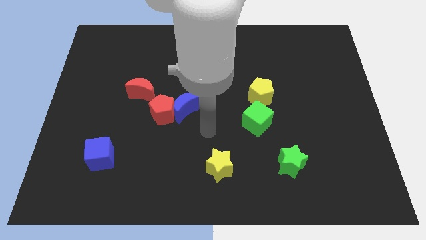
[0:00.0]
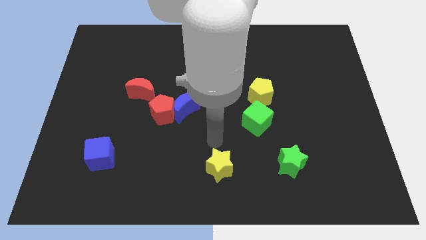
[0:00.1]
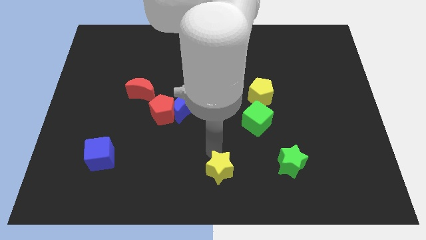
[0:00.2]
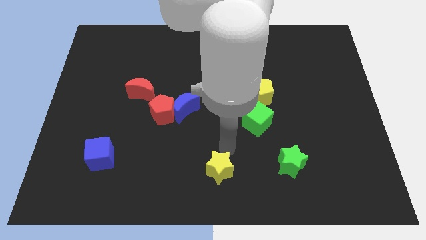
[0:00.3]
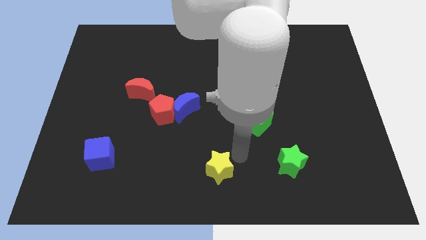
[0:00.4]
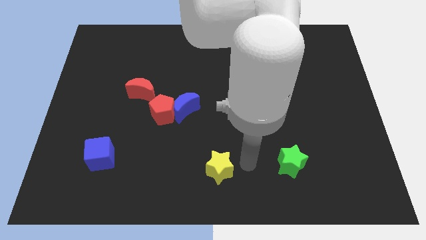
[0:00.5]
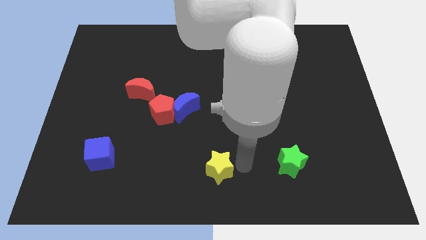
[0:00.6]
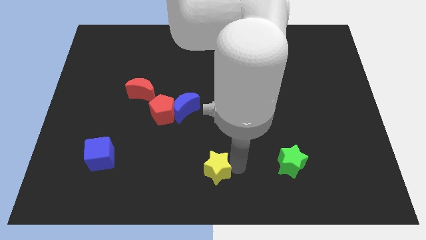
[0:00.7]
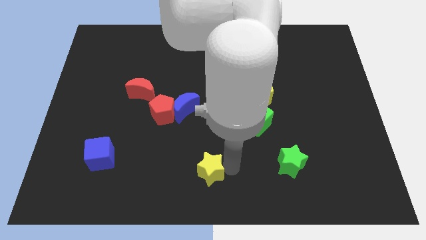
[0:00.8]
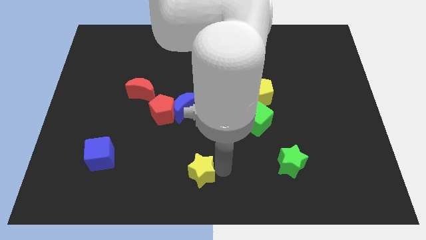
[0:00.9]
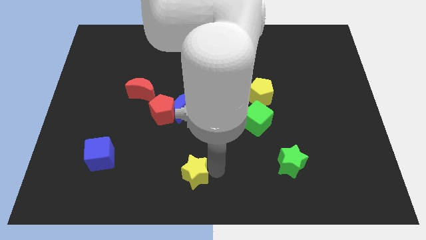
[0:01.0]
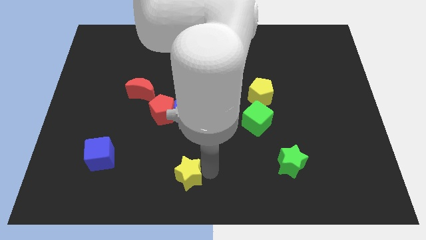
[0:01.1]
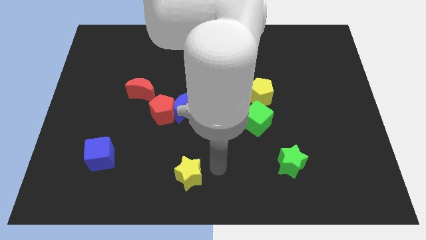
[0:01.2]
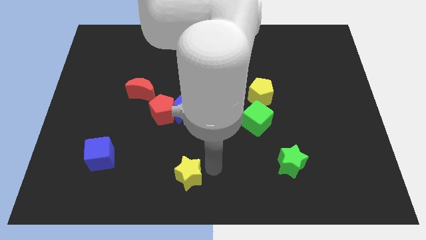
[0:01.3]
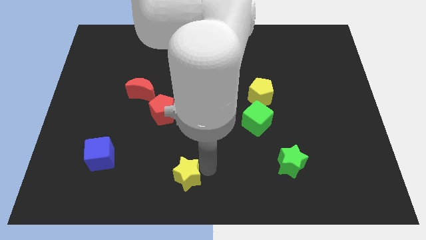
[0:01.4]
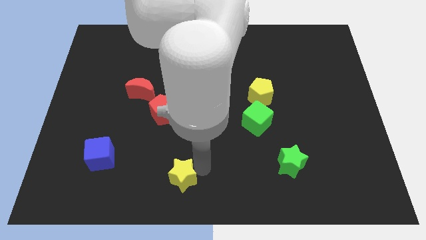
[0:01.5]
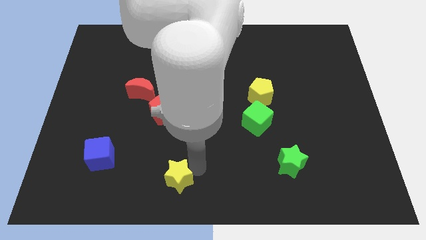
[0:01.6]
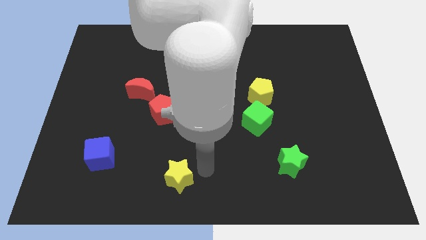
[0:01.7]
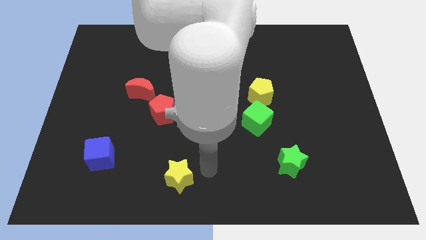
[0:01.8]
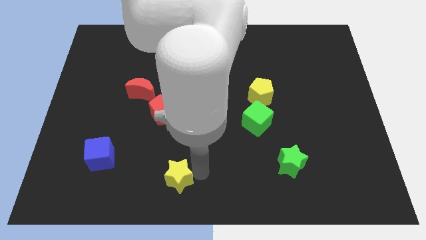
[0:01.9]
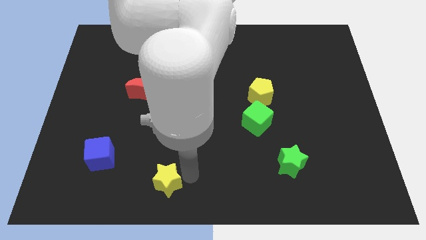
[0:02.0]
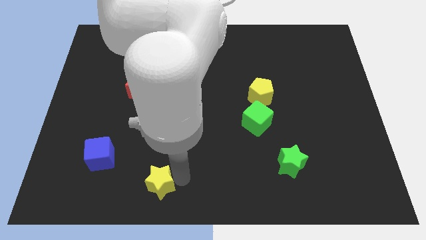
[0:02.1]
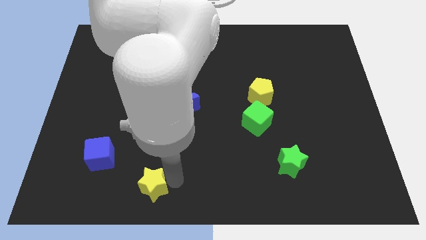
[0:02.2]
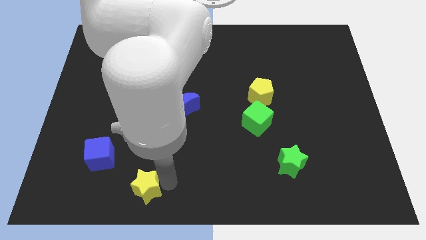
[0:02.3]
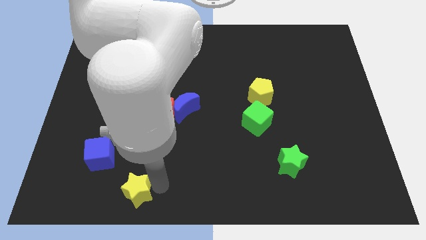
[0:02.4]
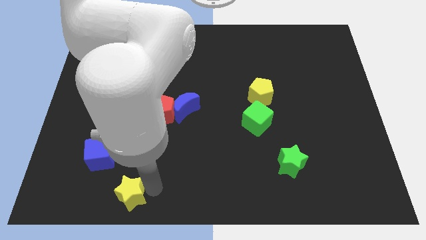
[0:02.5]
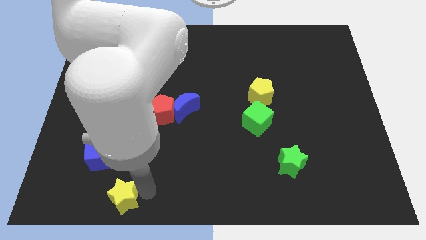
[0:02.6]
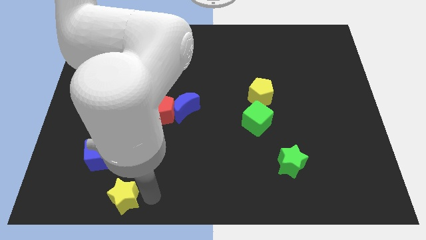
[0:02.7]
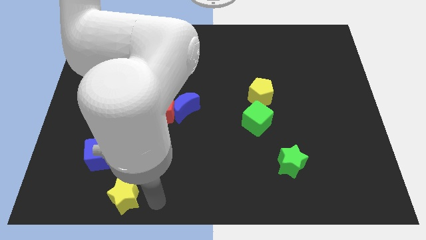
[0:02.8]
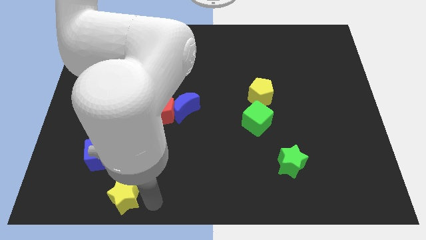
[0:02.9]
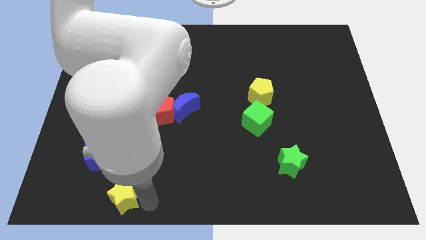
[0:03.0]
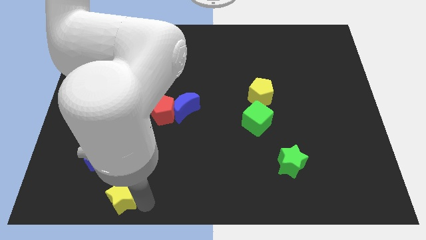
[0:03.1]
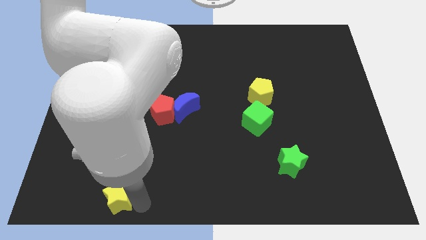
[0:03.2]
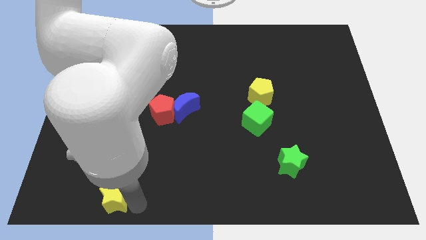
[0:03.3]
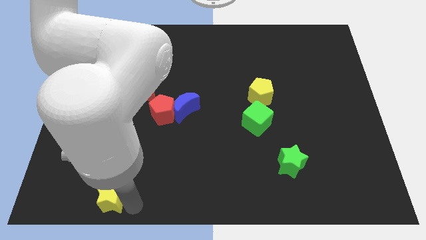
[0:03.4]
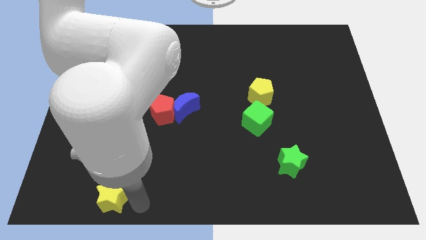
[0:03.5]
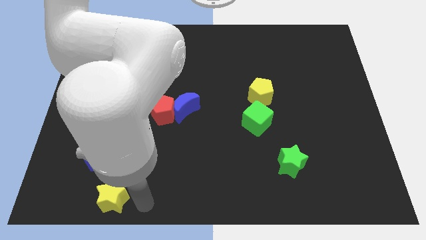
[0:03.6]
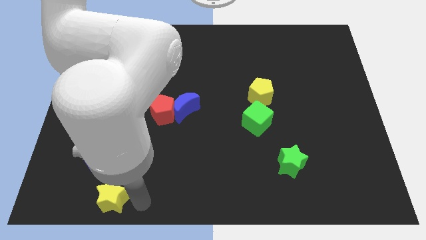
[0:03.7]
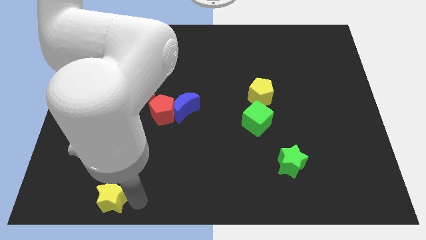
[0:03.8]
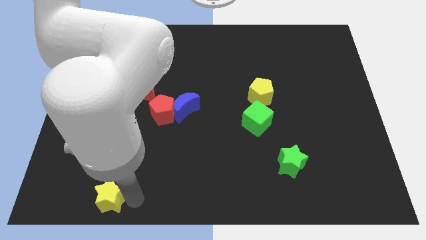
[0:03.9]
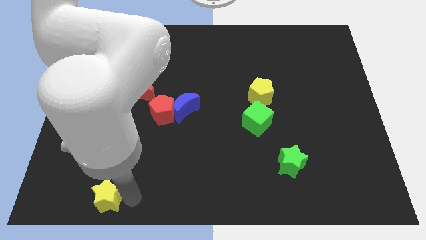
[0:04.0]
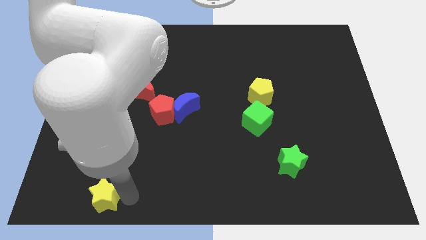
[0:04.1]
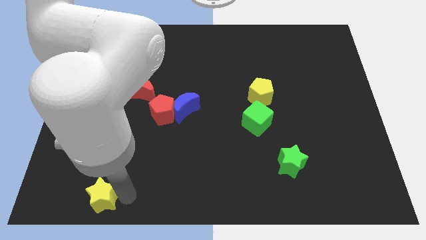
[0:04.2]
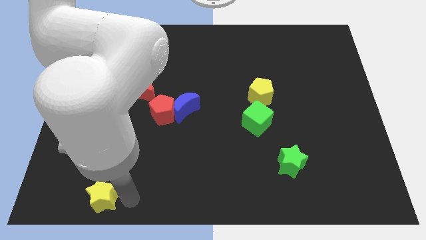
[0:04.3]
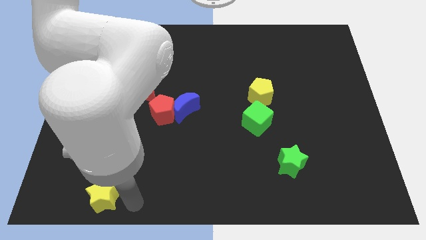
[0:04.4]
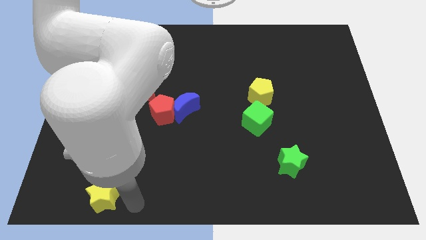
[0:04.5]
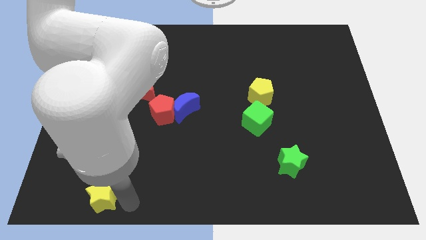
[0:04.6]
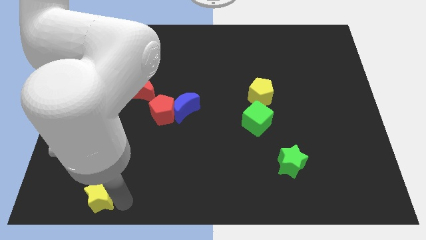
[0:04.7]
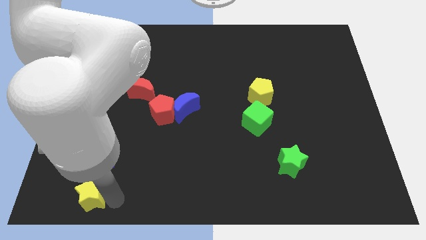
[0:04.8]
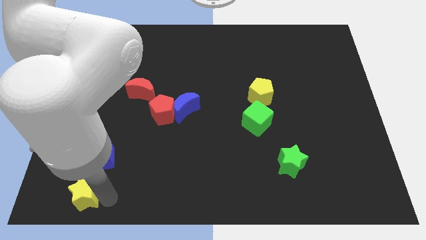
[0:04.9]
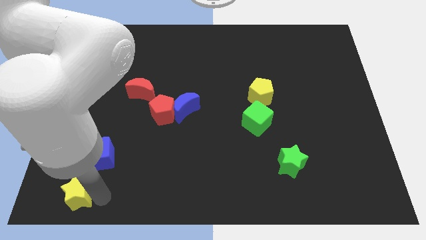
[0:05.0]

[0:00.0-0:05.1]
push the yellow star to the bottom left

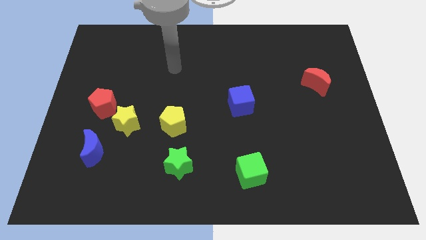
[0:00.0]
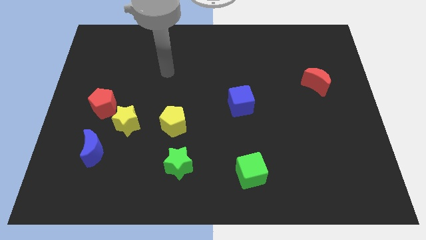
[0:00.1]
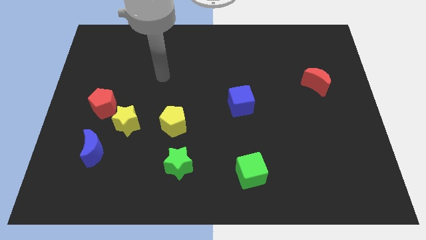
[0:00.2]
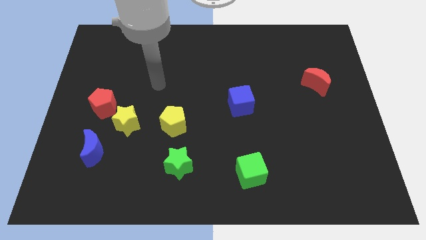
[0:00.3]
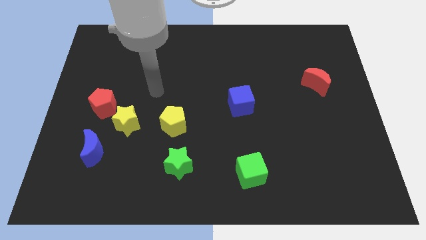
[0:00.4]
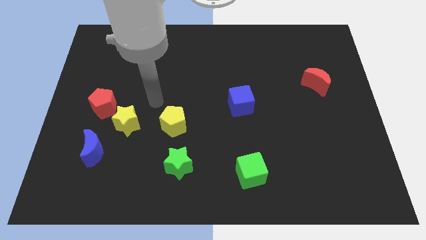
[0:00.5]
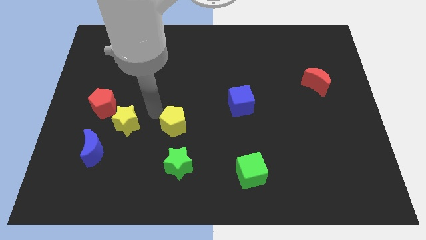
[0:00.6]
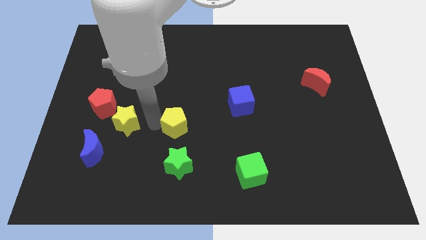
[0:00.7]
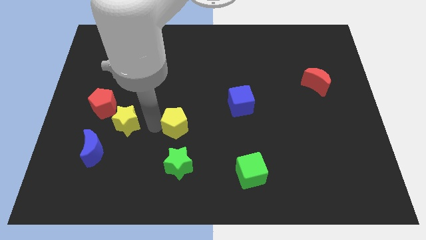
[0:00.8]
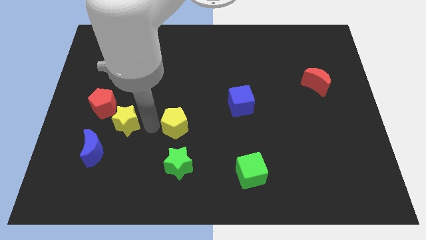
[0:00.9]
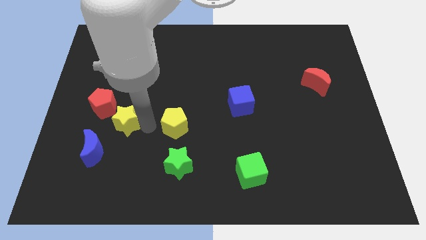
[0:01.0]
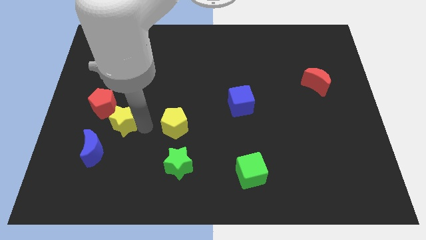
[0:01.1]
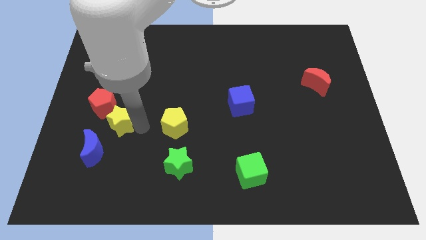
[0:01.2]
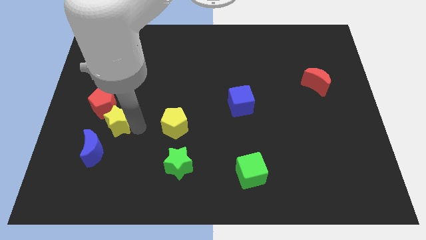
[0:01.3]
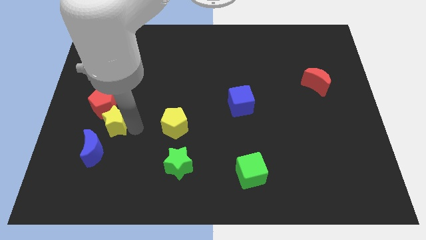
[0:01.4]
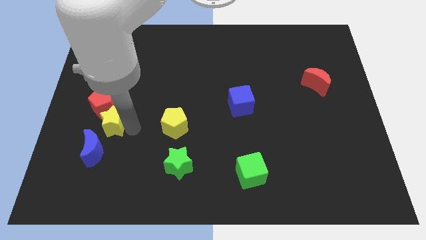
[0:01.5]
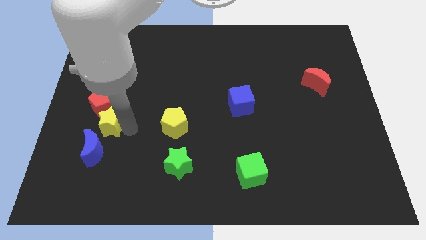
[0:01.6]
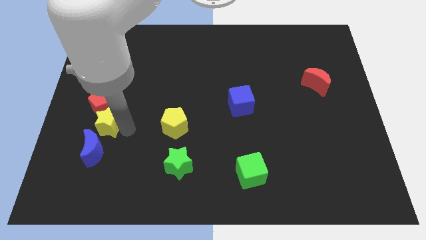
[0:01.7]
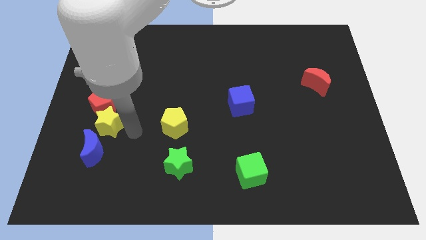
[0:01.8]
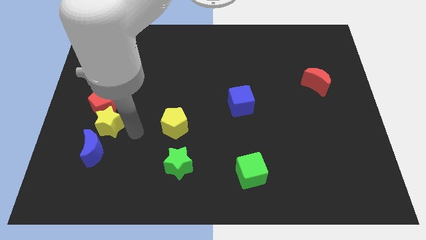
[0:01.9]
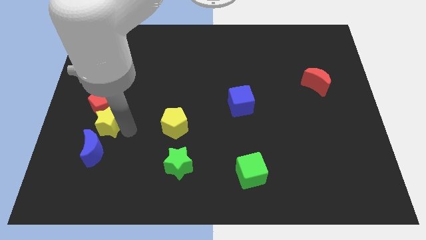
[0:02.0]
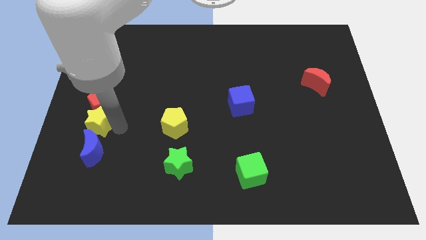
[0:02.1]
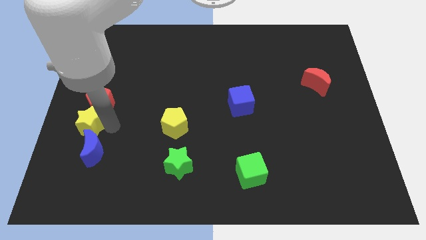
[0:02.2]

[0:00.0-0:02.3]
move the yellow star to the left side of the board
